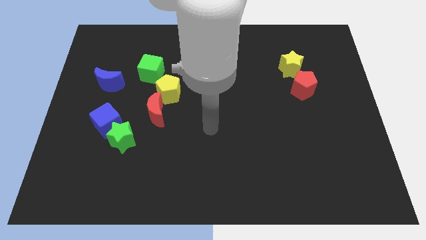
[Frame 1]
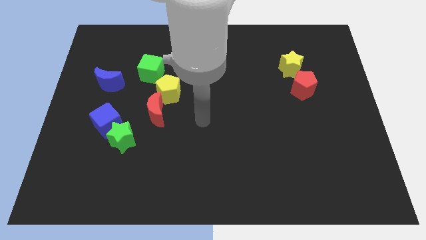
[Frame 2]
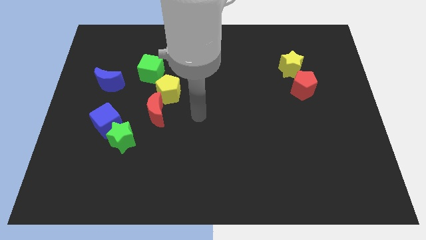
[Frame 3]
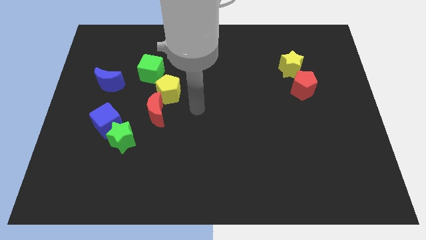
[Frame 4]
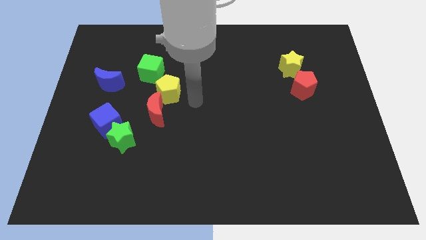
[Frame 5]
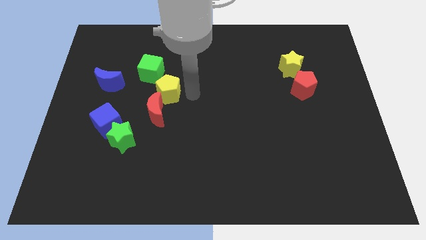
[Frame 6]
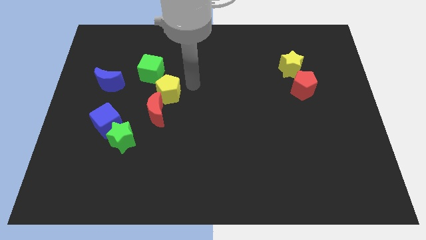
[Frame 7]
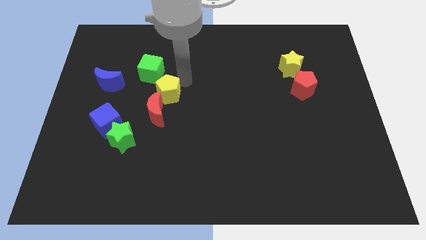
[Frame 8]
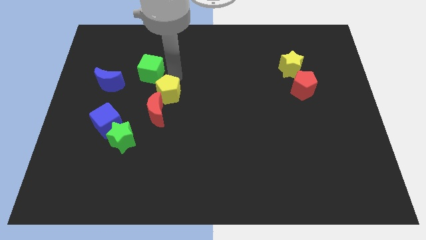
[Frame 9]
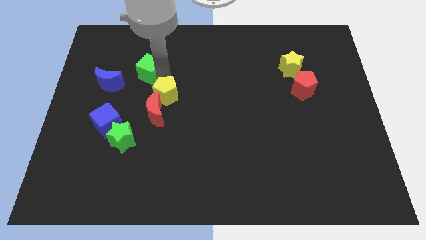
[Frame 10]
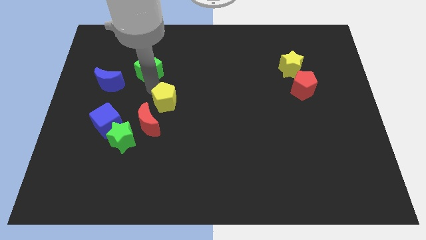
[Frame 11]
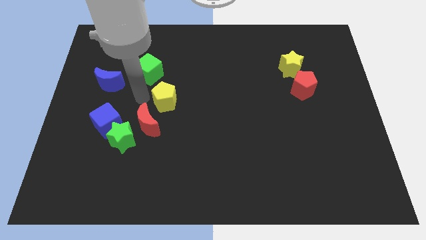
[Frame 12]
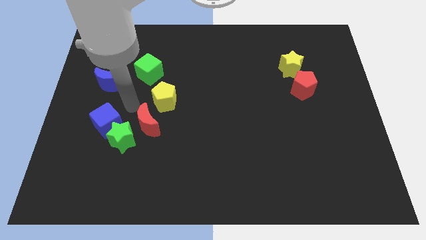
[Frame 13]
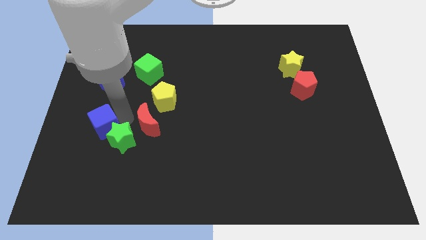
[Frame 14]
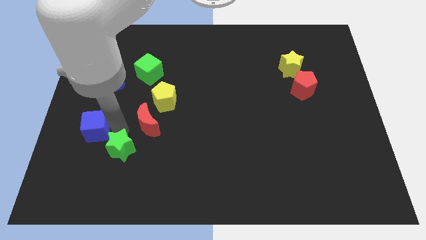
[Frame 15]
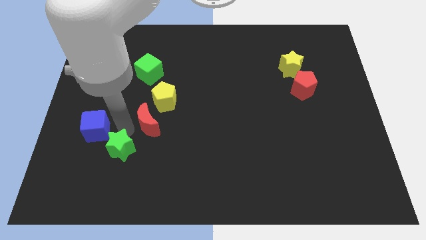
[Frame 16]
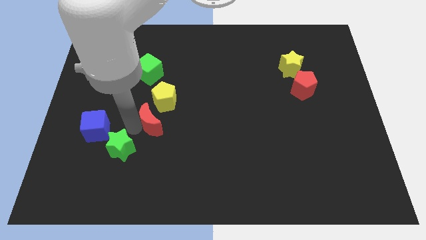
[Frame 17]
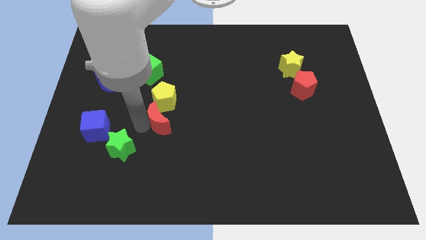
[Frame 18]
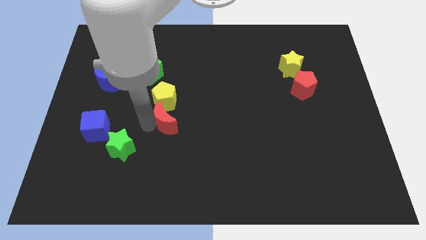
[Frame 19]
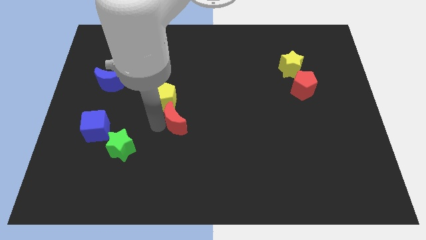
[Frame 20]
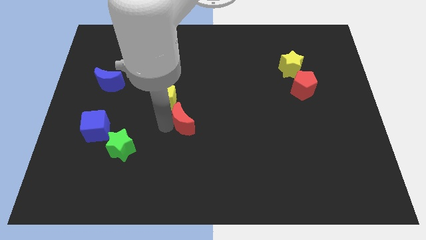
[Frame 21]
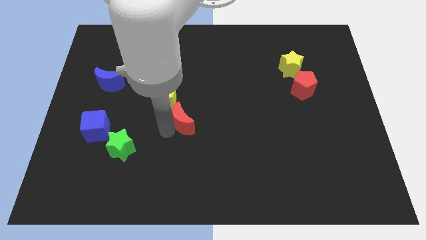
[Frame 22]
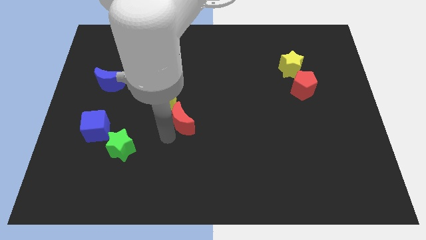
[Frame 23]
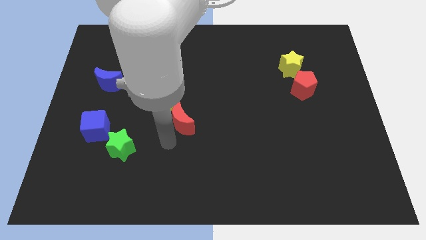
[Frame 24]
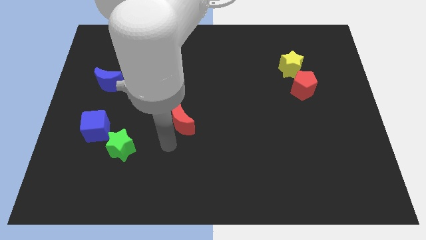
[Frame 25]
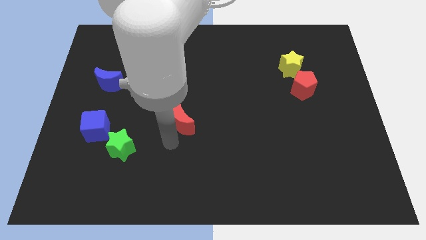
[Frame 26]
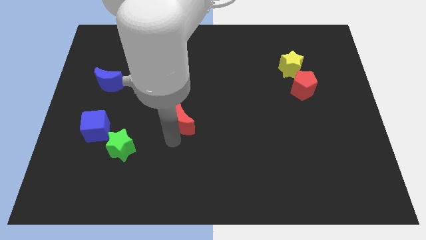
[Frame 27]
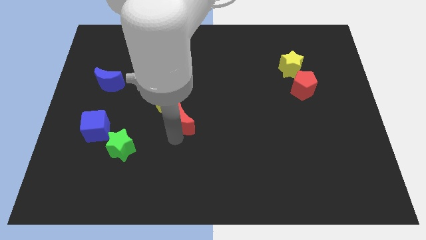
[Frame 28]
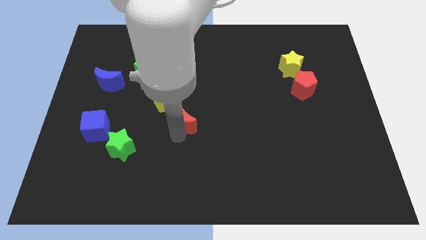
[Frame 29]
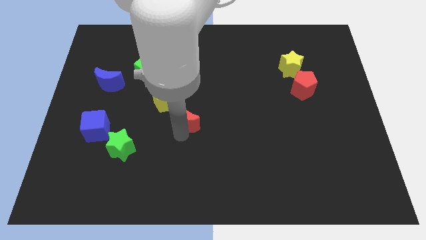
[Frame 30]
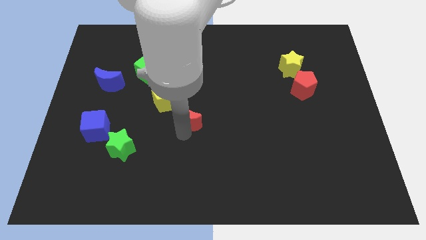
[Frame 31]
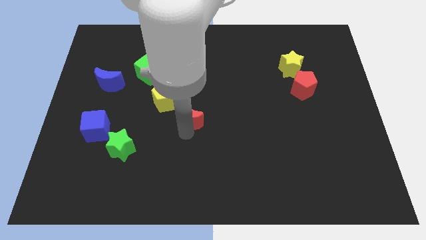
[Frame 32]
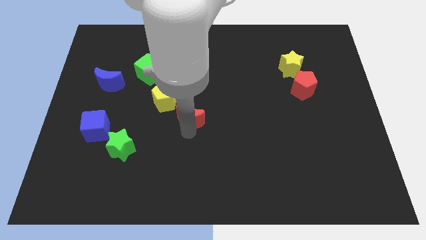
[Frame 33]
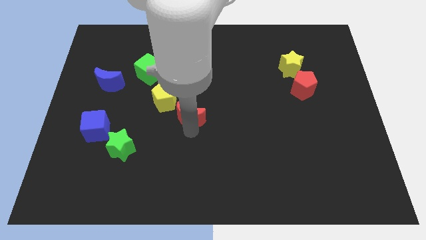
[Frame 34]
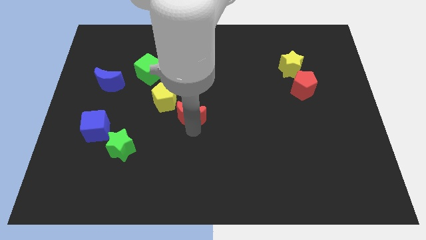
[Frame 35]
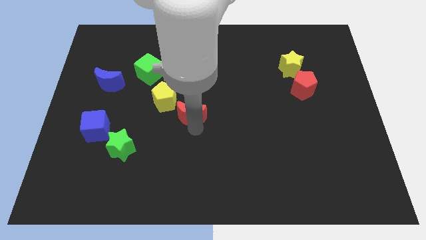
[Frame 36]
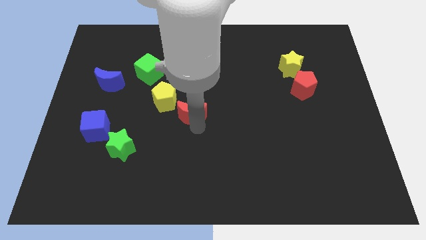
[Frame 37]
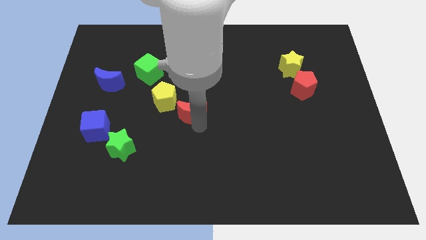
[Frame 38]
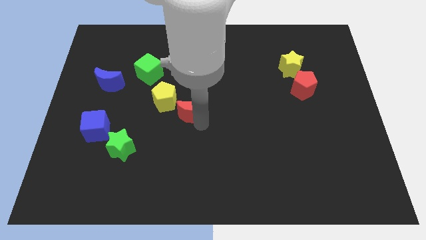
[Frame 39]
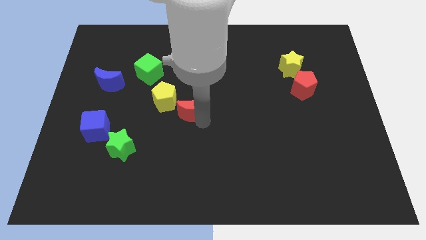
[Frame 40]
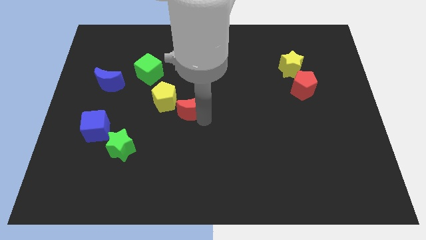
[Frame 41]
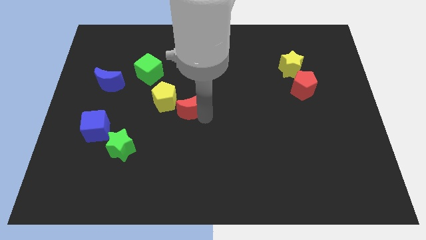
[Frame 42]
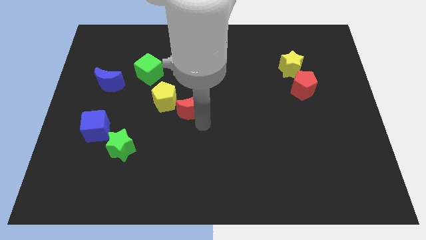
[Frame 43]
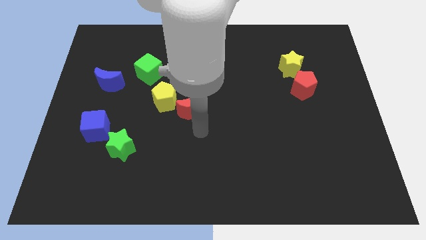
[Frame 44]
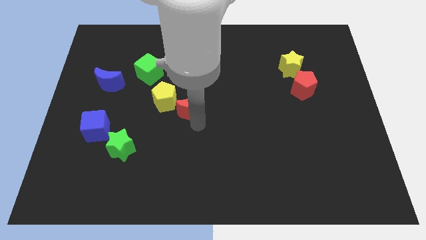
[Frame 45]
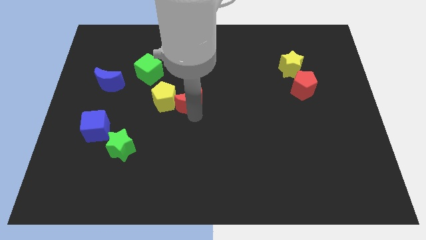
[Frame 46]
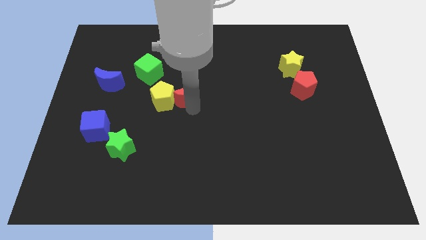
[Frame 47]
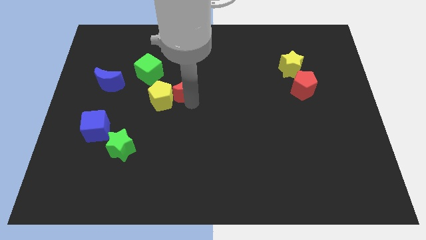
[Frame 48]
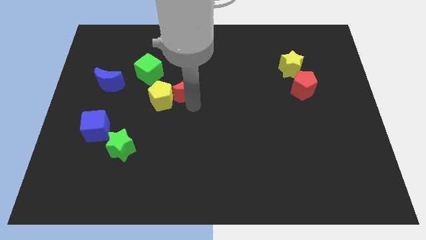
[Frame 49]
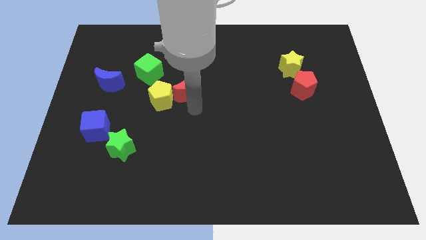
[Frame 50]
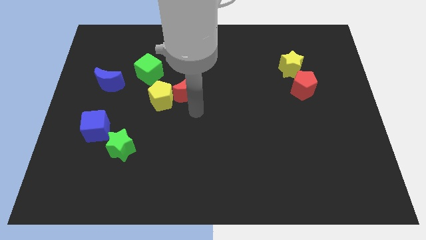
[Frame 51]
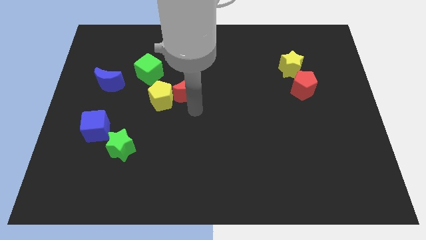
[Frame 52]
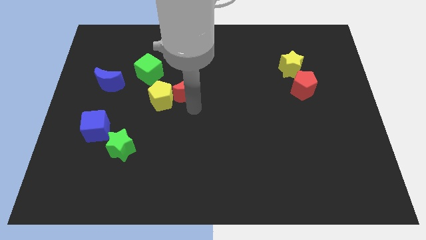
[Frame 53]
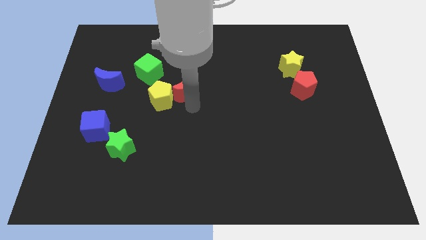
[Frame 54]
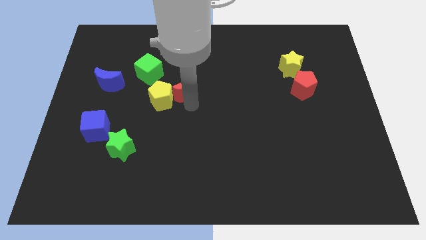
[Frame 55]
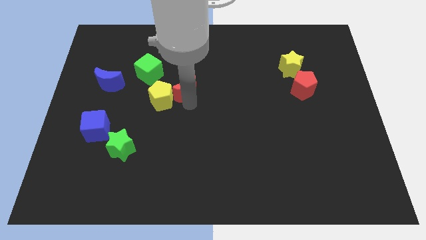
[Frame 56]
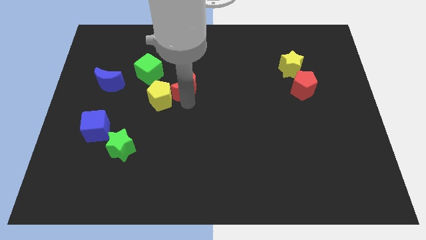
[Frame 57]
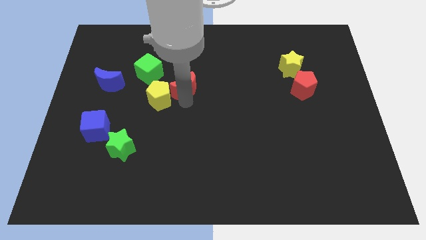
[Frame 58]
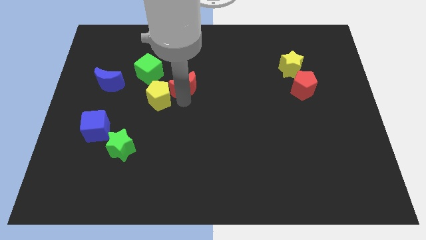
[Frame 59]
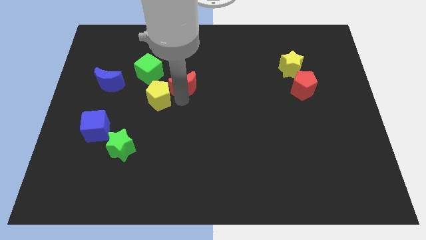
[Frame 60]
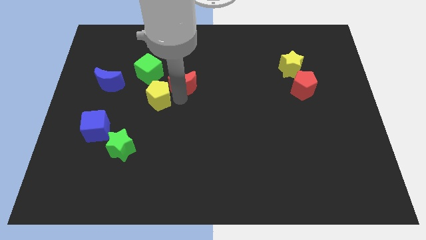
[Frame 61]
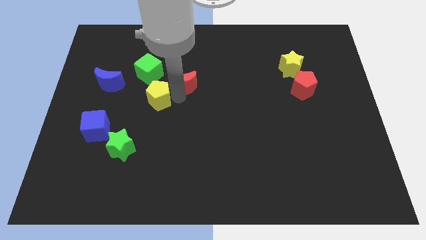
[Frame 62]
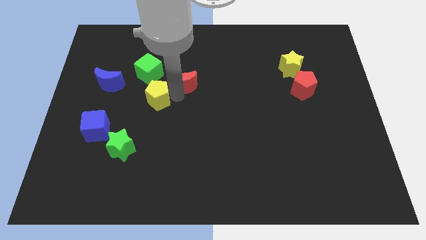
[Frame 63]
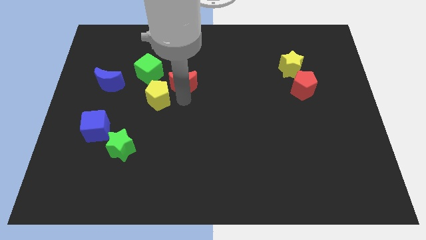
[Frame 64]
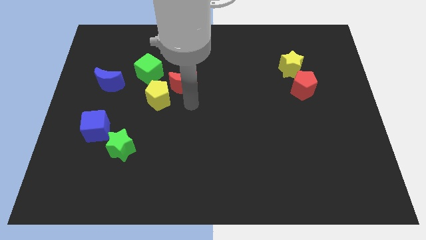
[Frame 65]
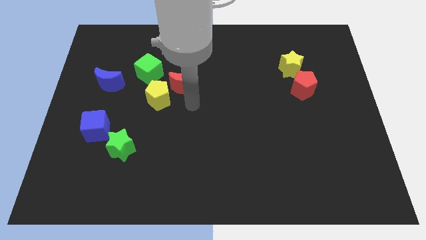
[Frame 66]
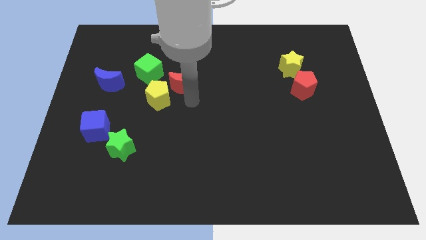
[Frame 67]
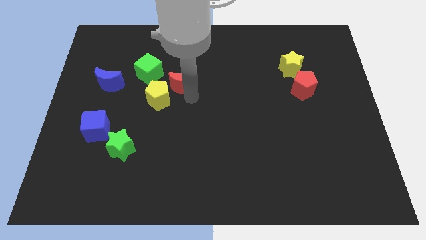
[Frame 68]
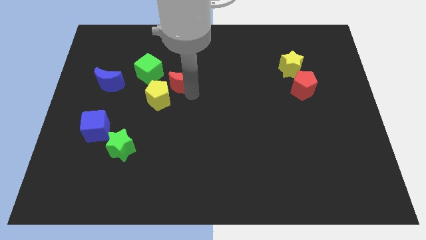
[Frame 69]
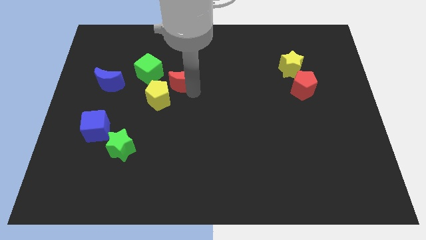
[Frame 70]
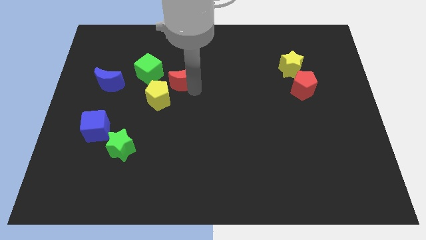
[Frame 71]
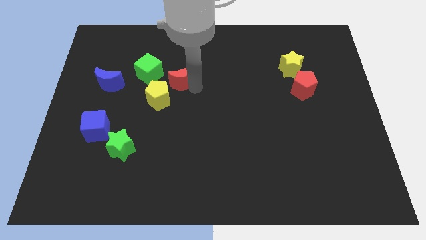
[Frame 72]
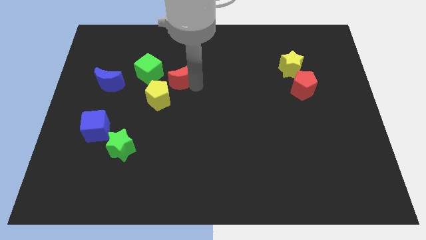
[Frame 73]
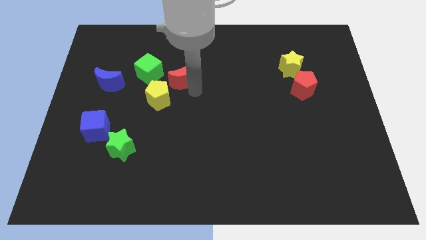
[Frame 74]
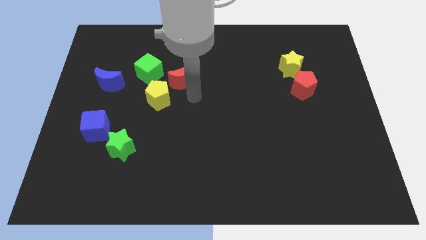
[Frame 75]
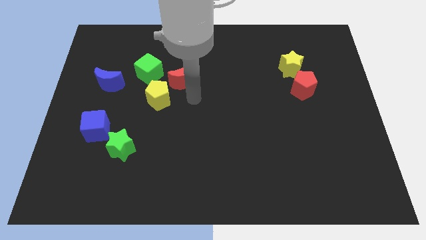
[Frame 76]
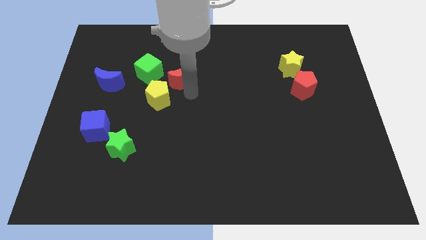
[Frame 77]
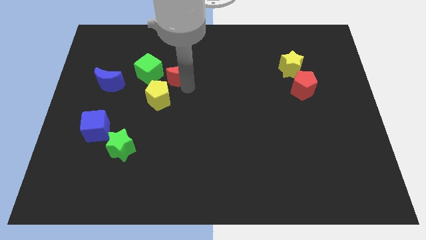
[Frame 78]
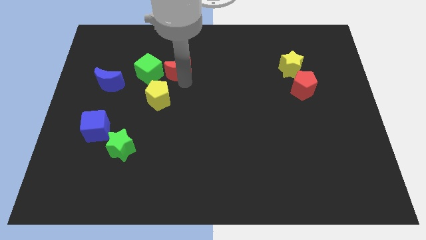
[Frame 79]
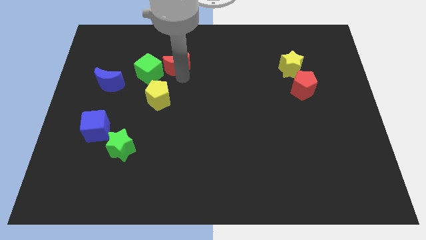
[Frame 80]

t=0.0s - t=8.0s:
move the red moon to the top right of the green cube
